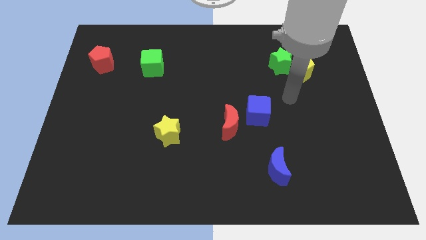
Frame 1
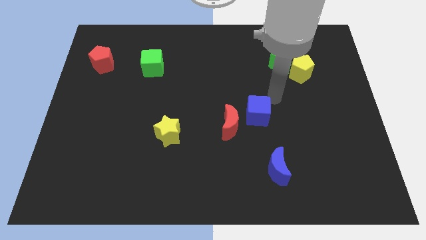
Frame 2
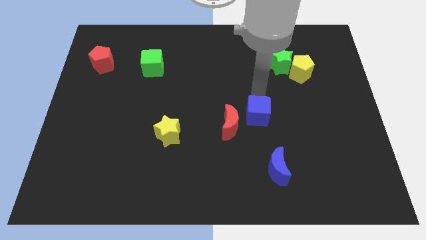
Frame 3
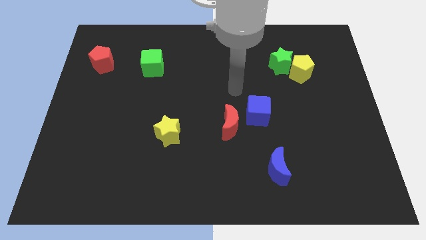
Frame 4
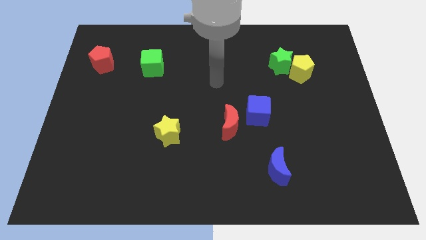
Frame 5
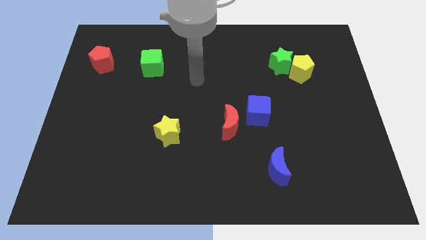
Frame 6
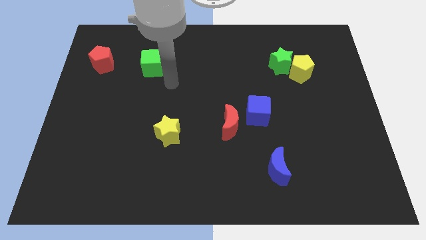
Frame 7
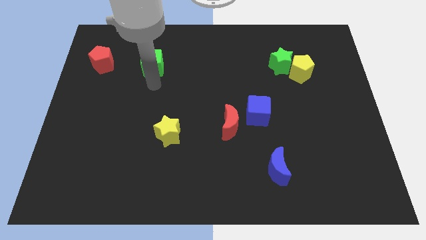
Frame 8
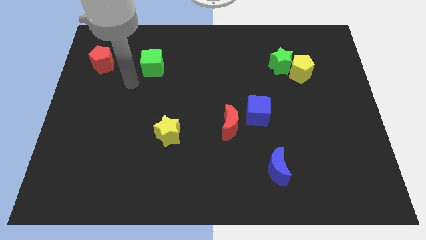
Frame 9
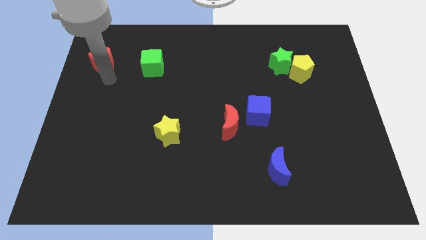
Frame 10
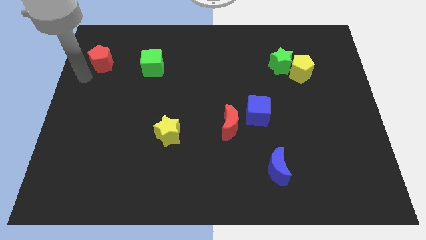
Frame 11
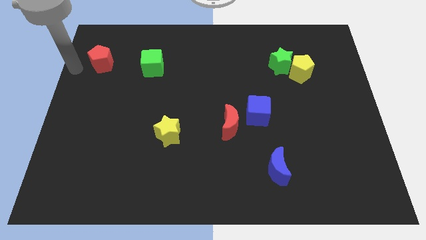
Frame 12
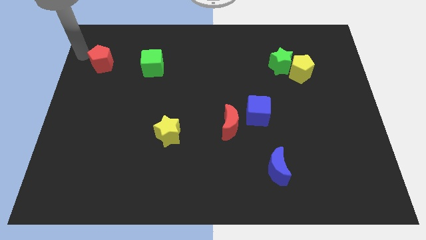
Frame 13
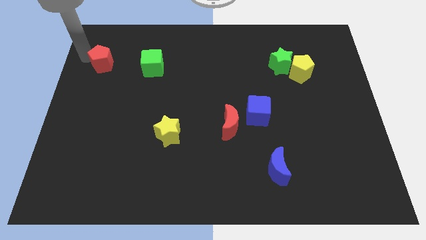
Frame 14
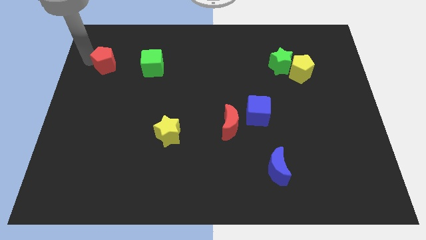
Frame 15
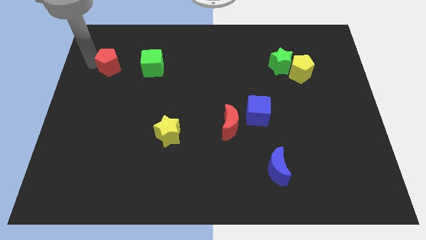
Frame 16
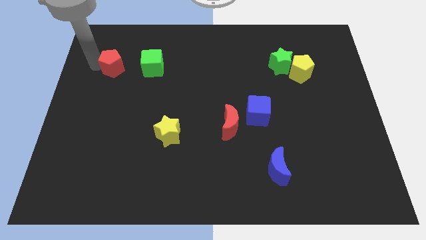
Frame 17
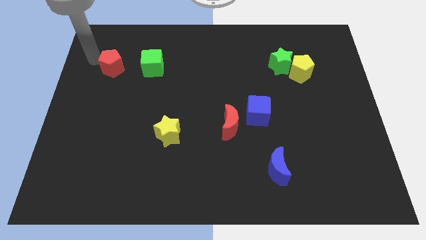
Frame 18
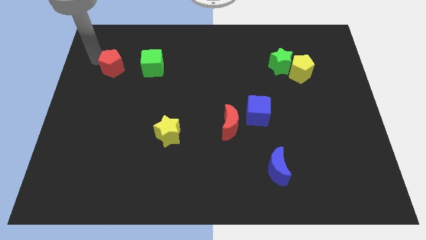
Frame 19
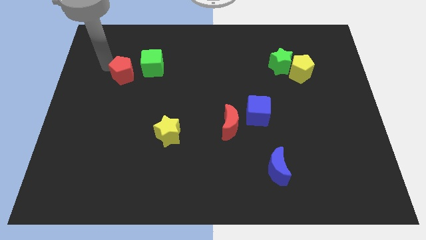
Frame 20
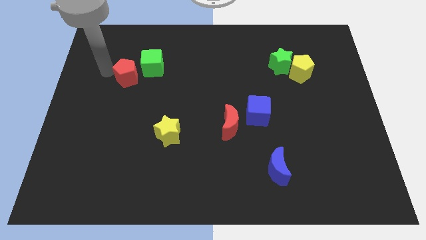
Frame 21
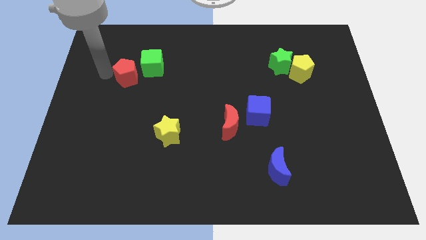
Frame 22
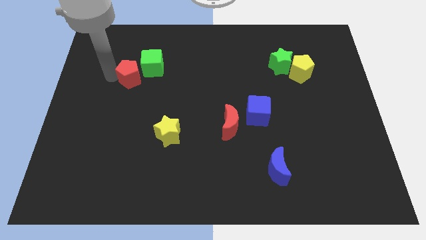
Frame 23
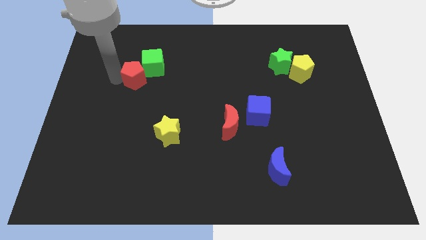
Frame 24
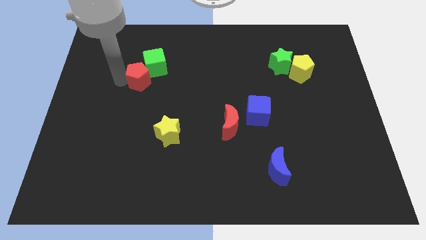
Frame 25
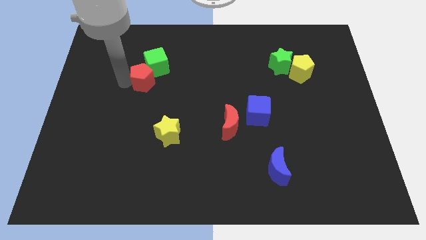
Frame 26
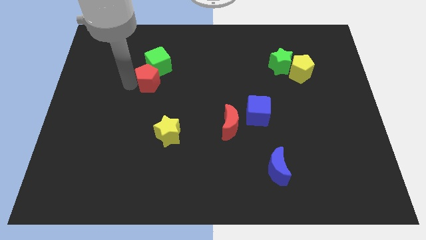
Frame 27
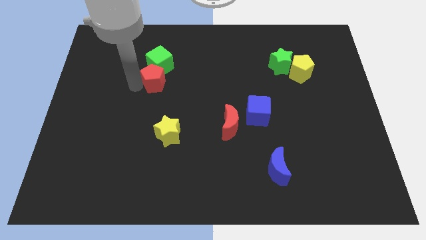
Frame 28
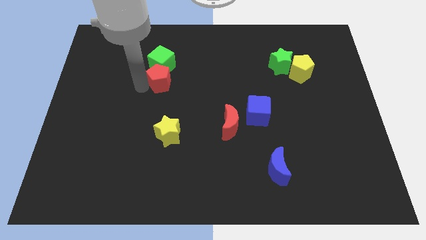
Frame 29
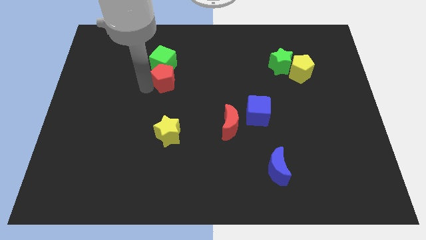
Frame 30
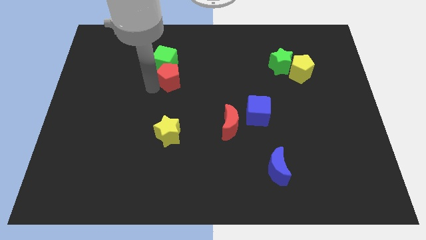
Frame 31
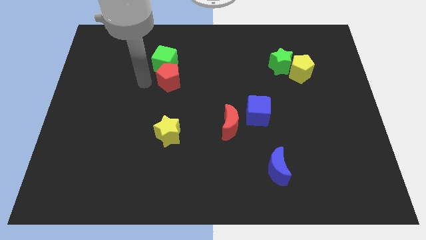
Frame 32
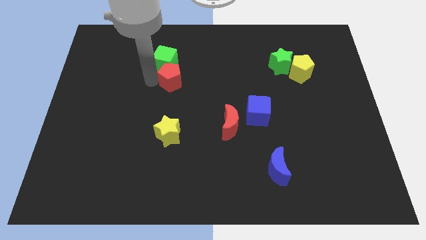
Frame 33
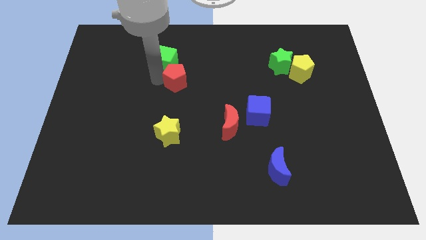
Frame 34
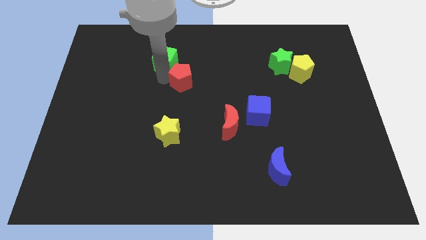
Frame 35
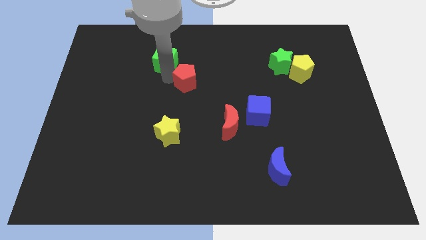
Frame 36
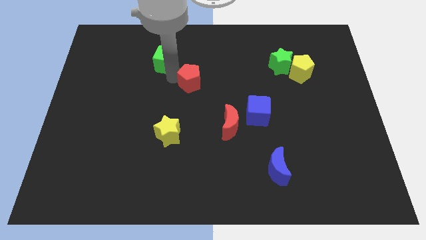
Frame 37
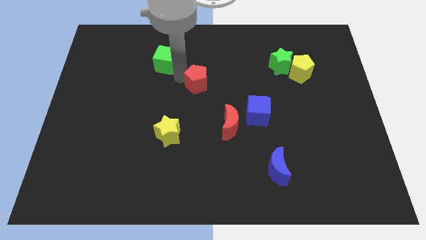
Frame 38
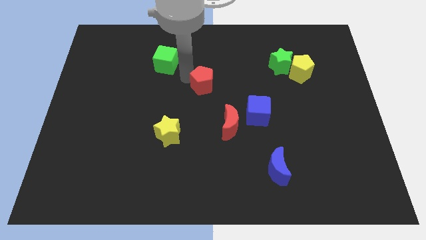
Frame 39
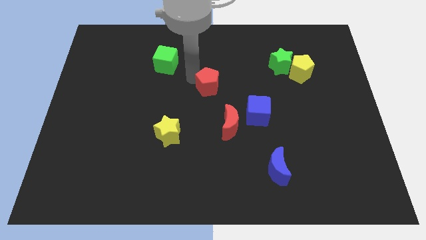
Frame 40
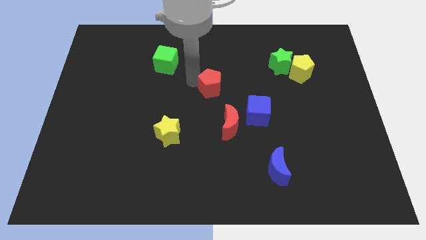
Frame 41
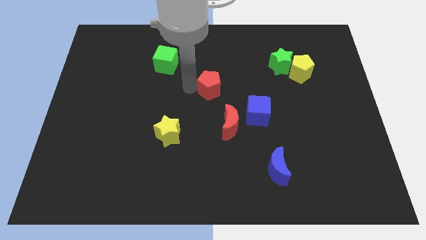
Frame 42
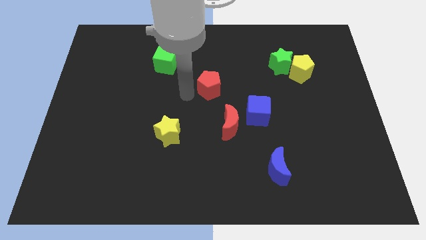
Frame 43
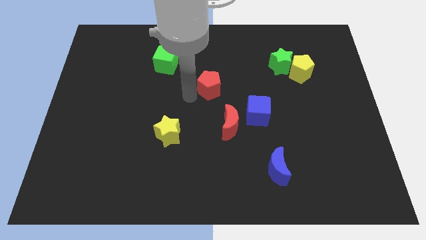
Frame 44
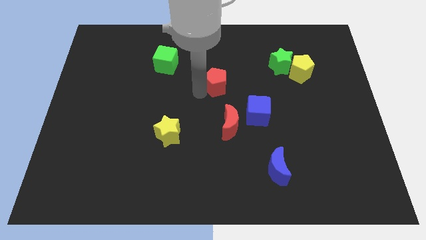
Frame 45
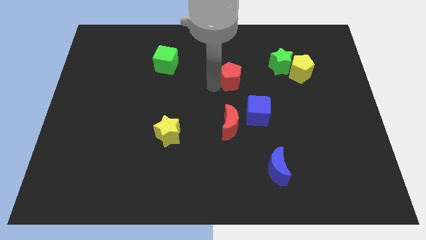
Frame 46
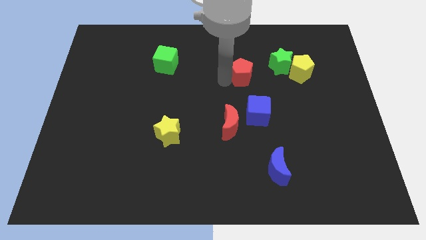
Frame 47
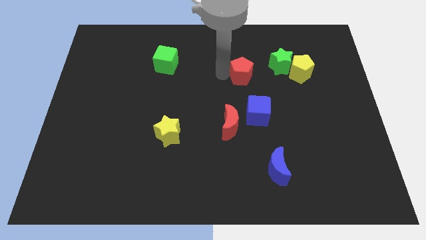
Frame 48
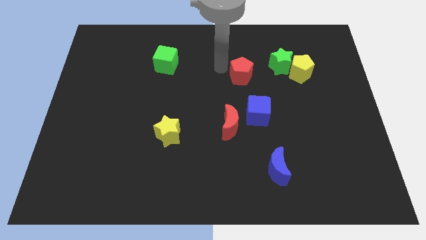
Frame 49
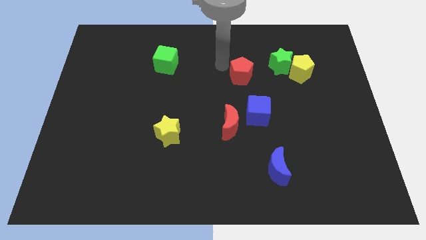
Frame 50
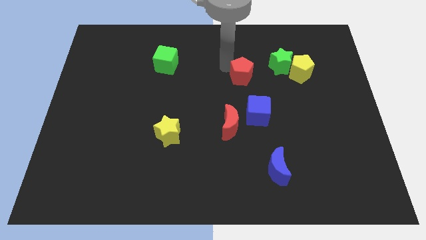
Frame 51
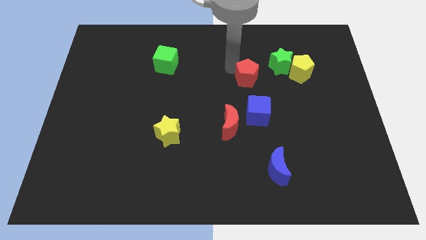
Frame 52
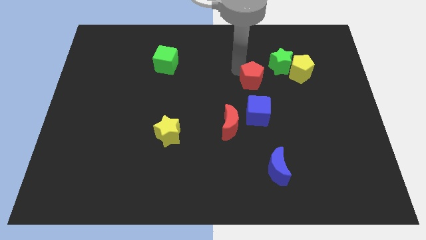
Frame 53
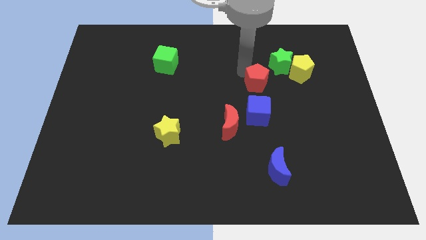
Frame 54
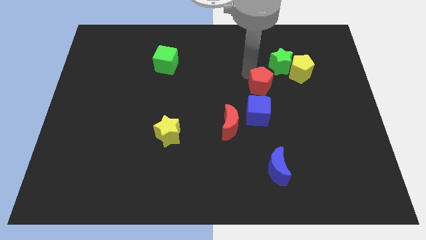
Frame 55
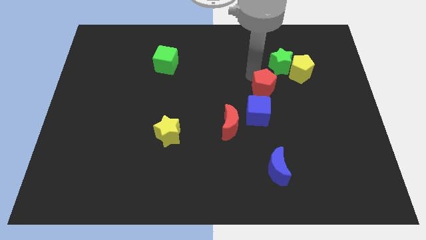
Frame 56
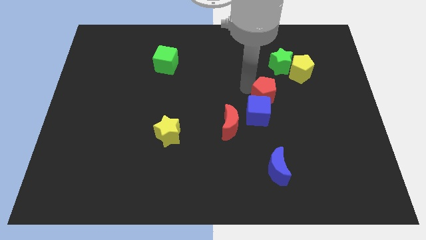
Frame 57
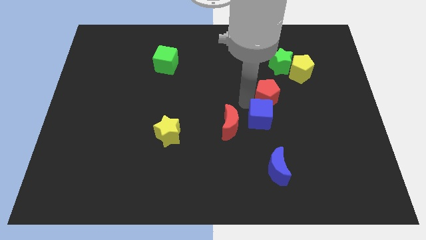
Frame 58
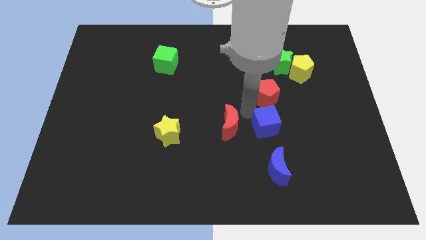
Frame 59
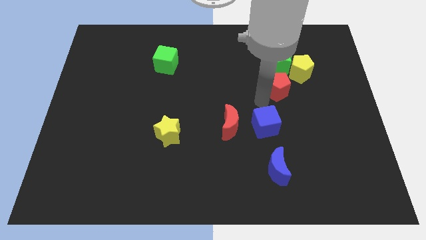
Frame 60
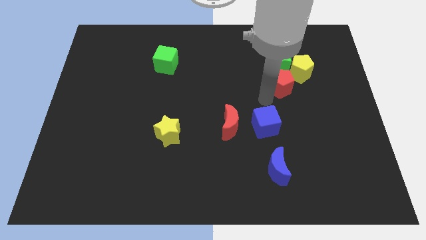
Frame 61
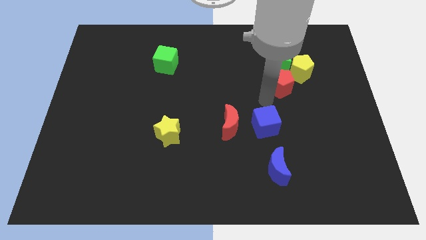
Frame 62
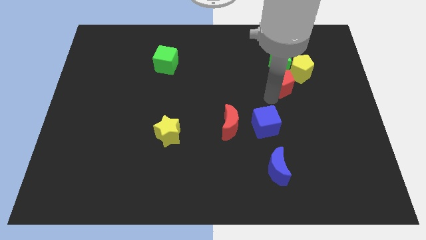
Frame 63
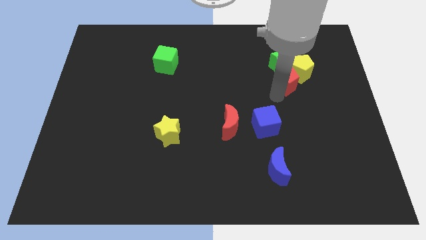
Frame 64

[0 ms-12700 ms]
push the red pentagon next to the yellow pentagon
